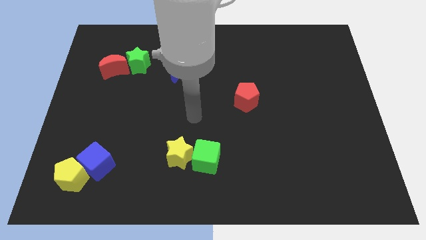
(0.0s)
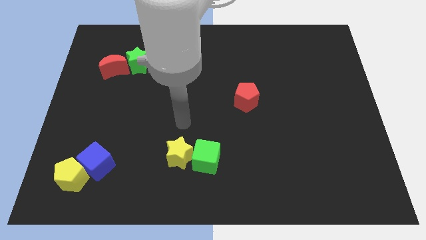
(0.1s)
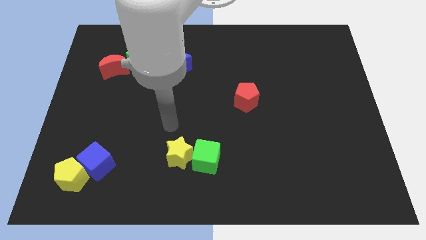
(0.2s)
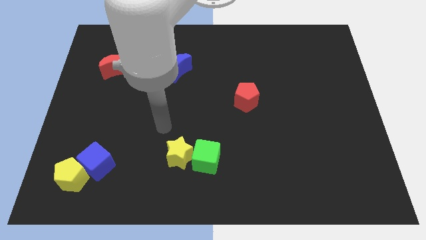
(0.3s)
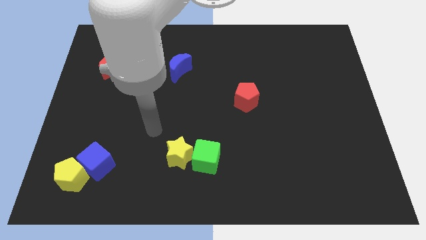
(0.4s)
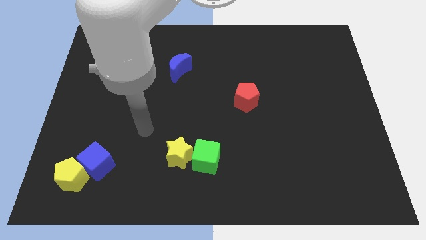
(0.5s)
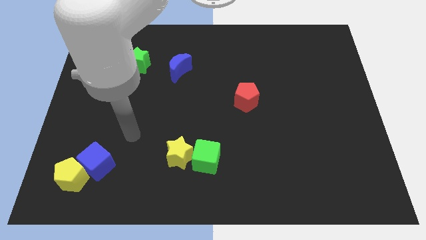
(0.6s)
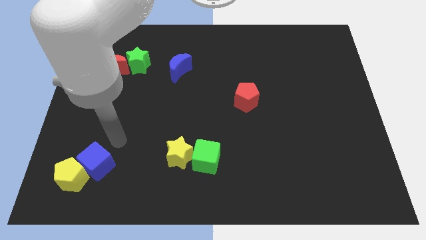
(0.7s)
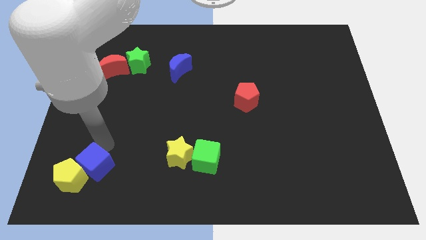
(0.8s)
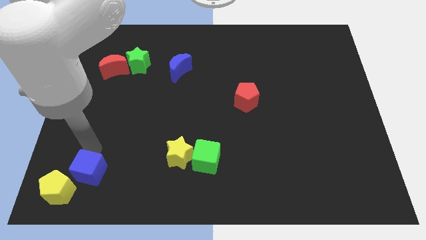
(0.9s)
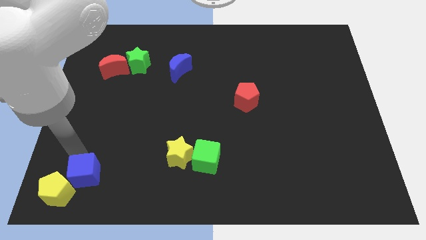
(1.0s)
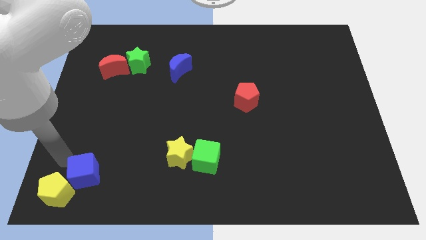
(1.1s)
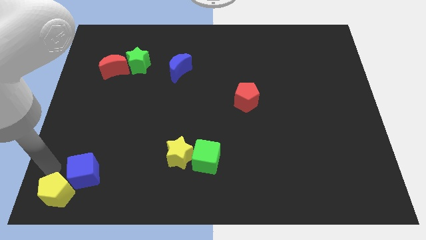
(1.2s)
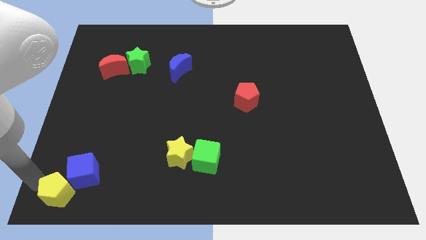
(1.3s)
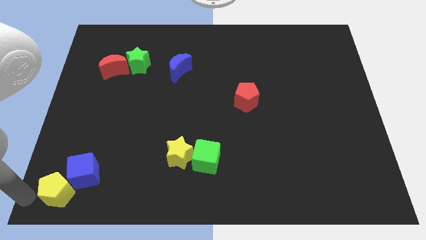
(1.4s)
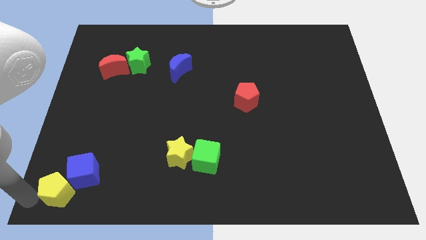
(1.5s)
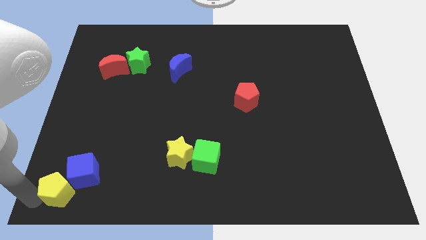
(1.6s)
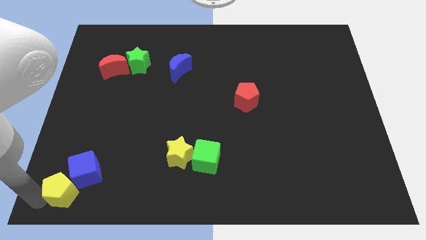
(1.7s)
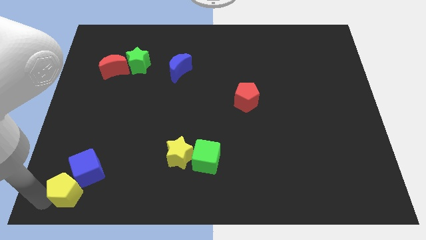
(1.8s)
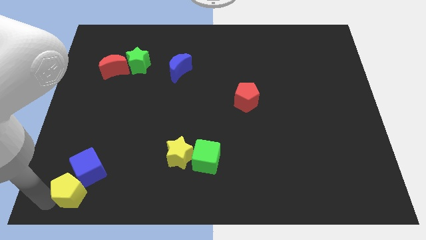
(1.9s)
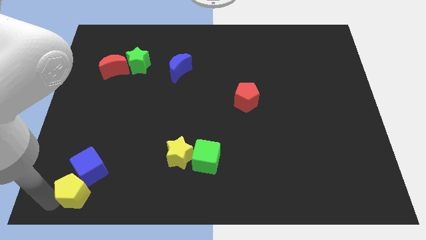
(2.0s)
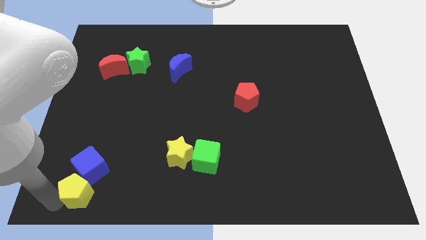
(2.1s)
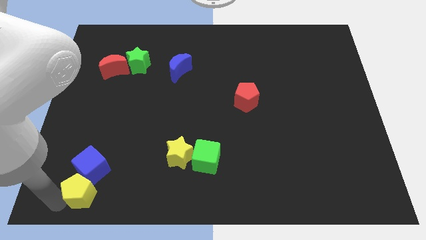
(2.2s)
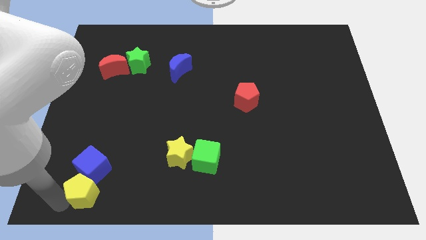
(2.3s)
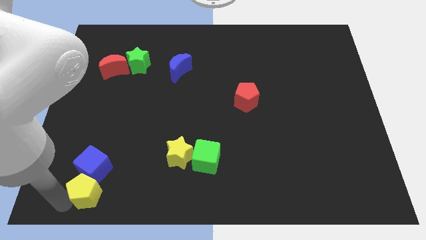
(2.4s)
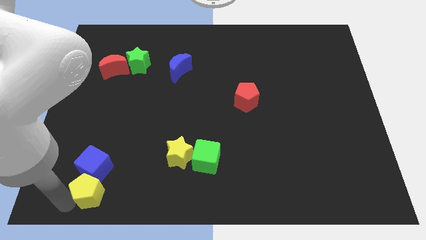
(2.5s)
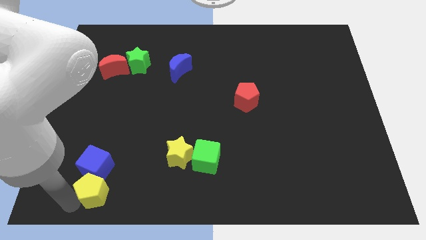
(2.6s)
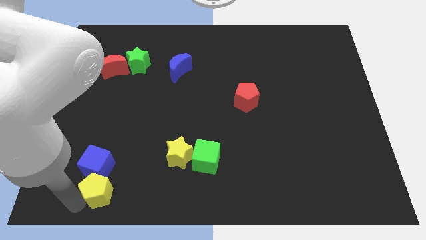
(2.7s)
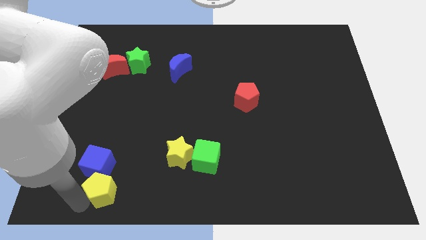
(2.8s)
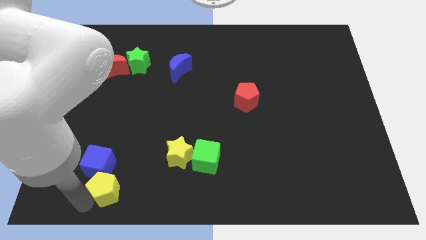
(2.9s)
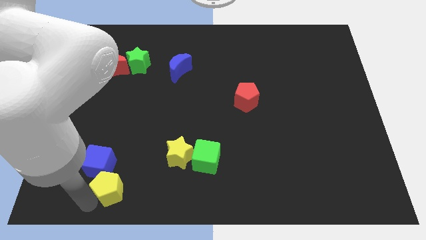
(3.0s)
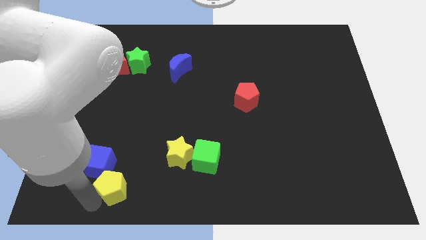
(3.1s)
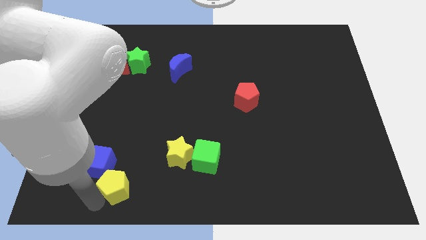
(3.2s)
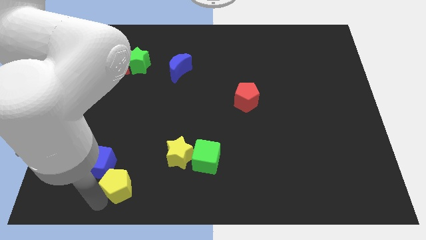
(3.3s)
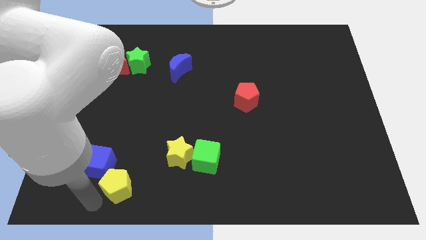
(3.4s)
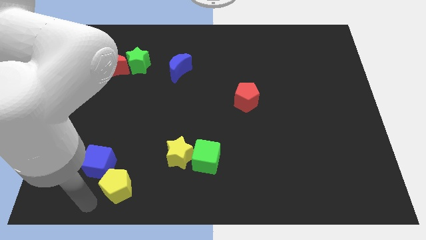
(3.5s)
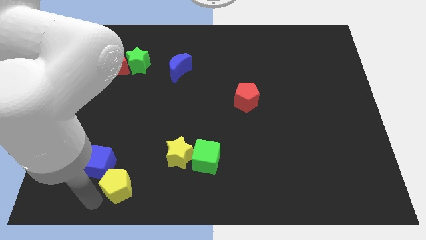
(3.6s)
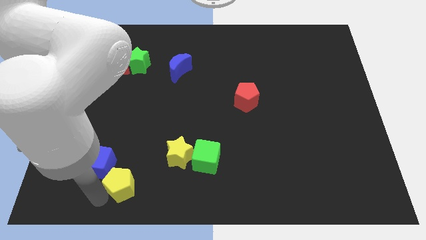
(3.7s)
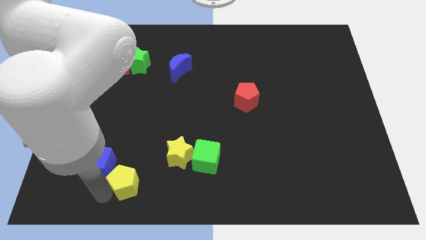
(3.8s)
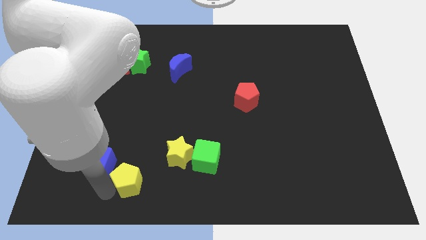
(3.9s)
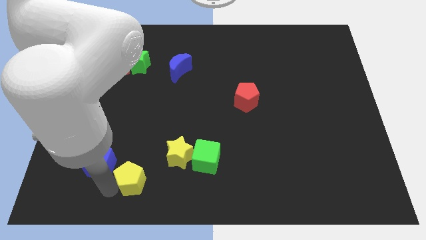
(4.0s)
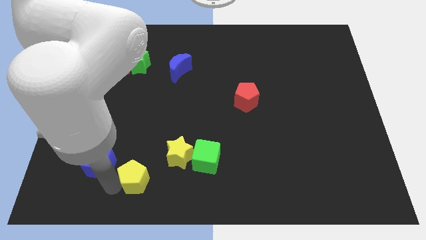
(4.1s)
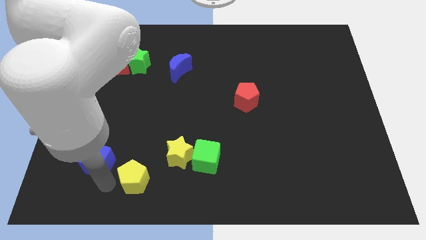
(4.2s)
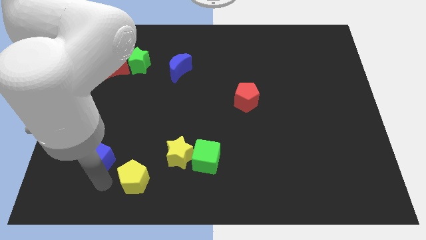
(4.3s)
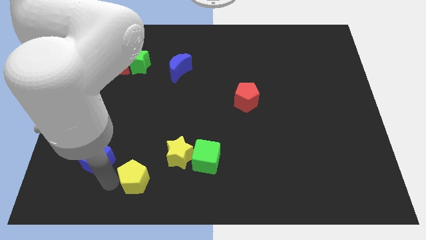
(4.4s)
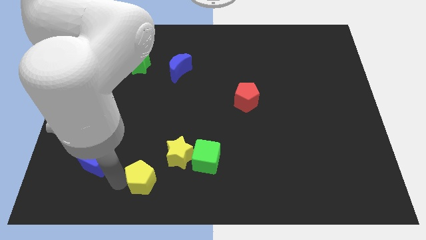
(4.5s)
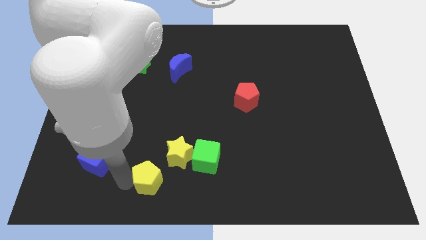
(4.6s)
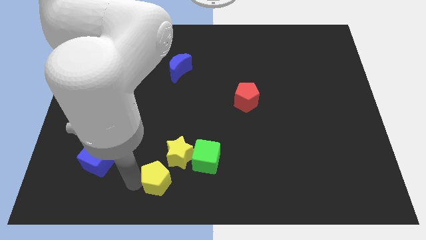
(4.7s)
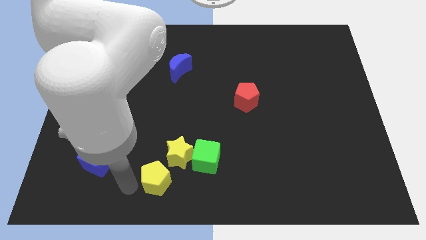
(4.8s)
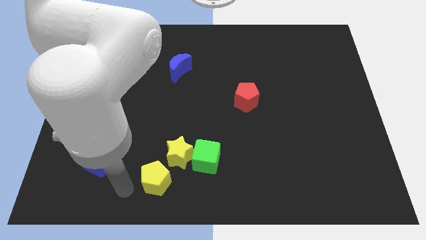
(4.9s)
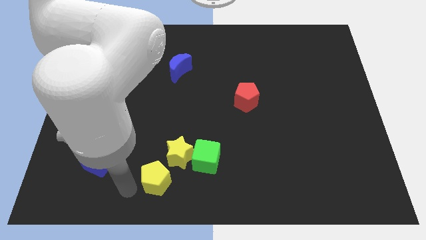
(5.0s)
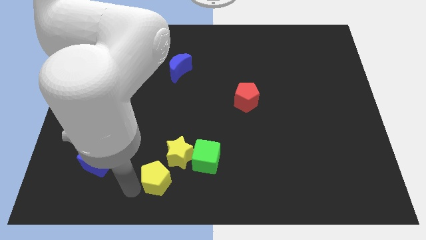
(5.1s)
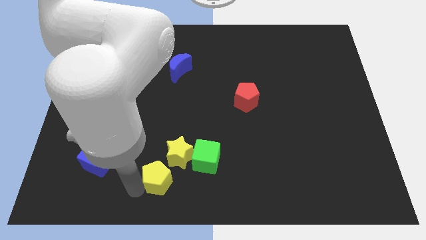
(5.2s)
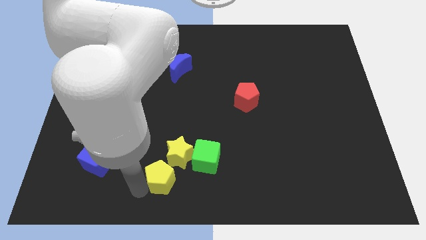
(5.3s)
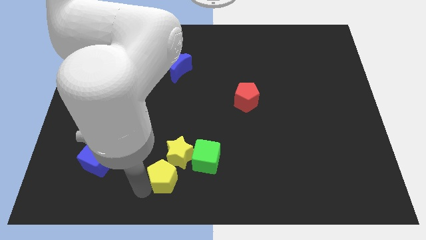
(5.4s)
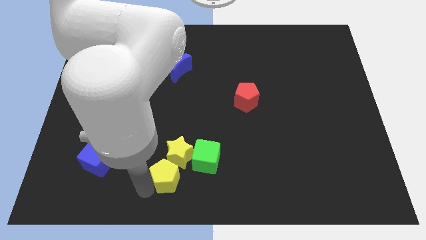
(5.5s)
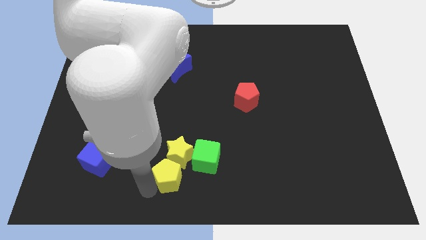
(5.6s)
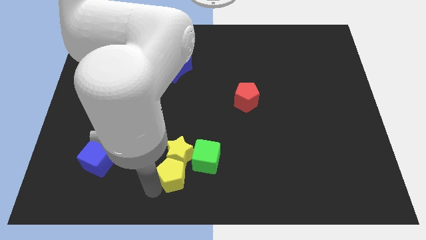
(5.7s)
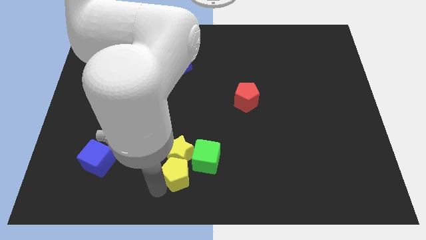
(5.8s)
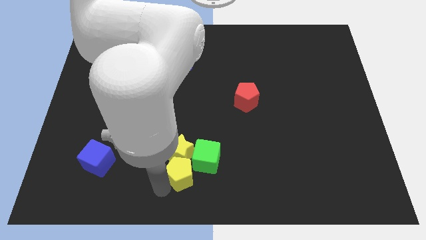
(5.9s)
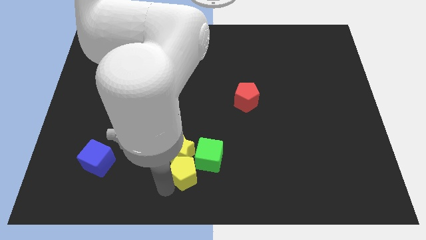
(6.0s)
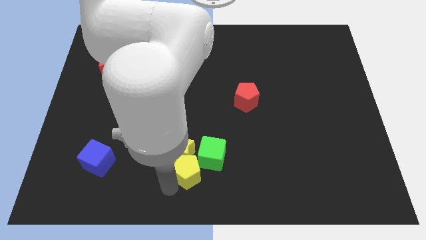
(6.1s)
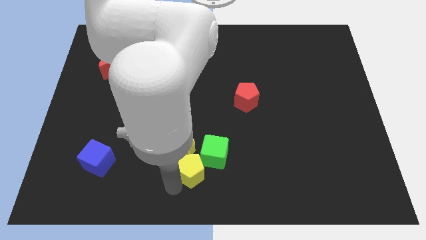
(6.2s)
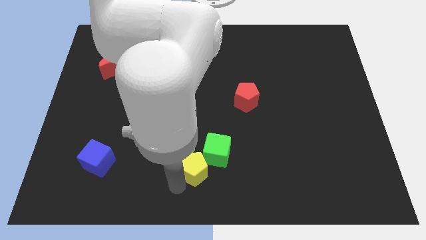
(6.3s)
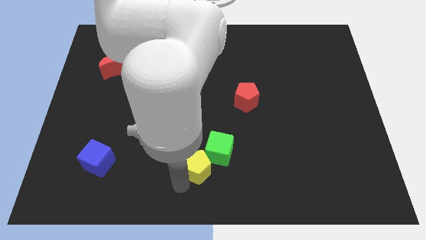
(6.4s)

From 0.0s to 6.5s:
put the yellow pentagon to the green cube

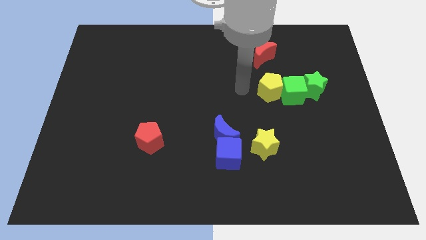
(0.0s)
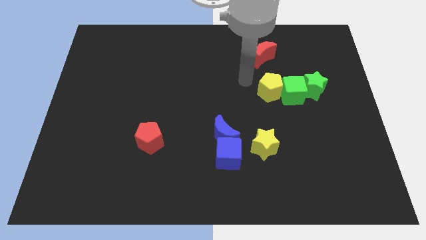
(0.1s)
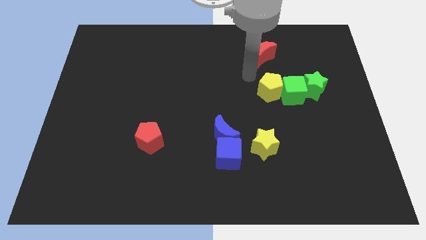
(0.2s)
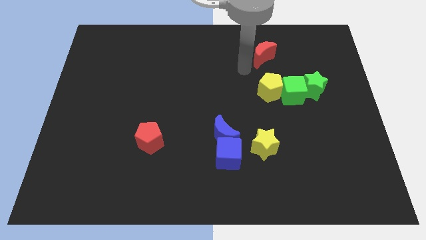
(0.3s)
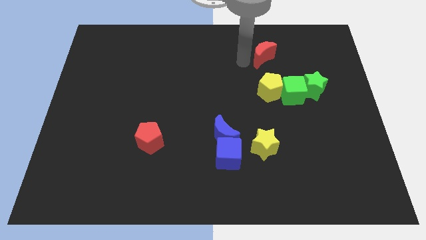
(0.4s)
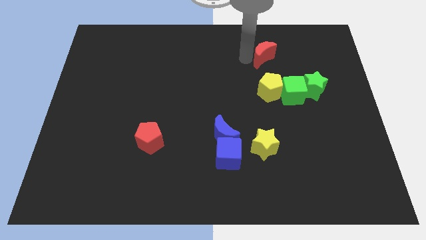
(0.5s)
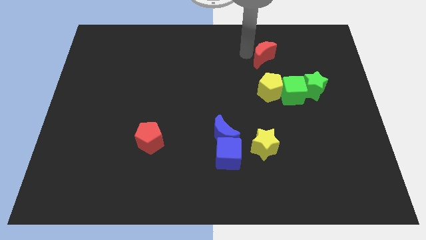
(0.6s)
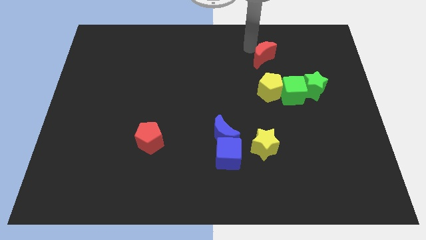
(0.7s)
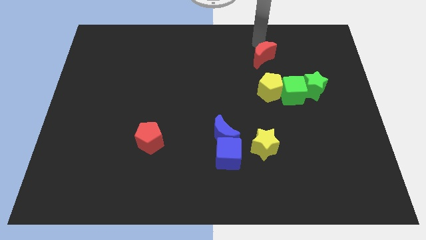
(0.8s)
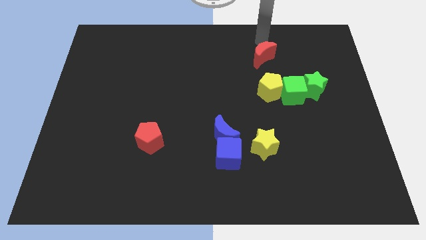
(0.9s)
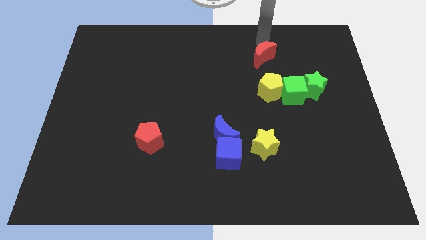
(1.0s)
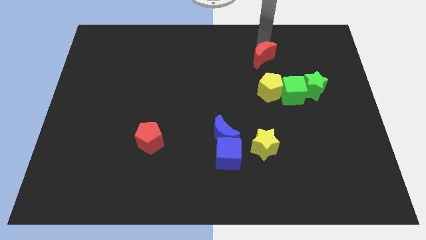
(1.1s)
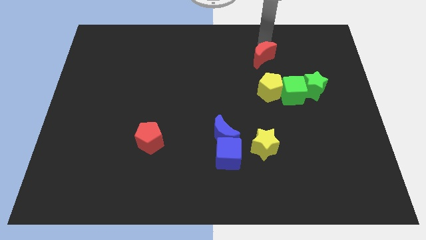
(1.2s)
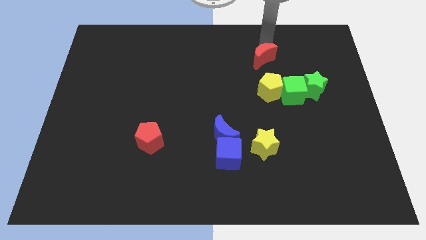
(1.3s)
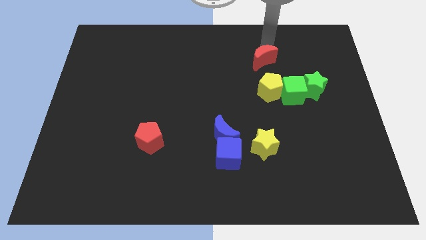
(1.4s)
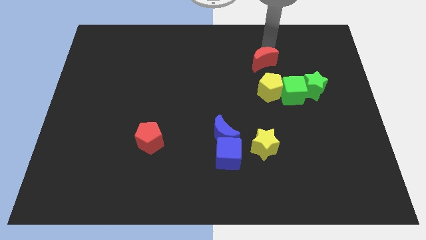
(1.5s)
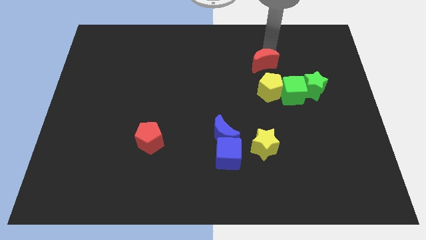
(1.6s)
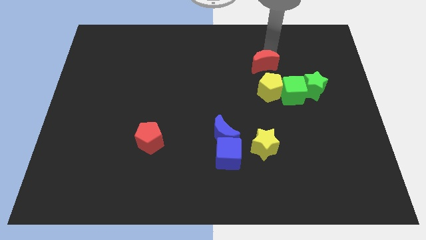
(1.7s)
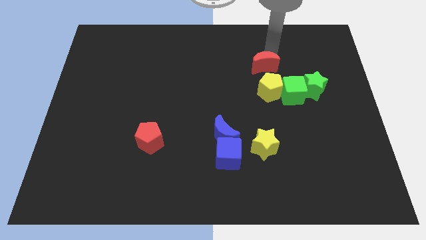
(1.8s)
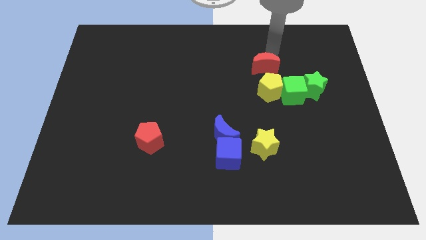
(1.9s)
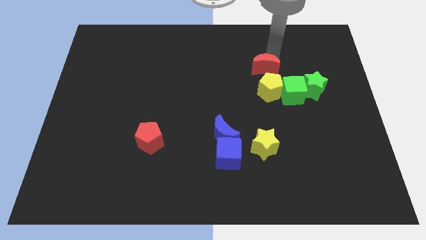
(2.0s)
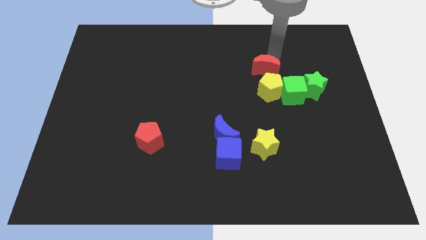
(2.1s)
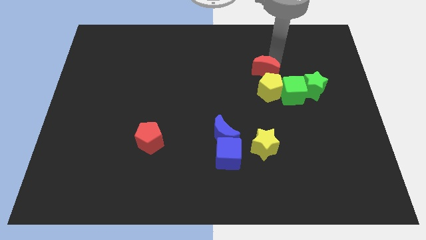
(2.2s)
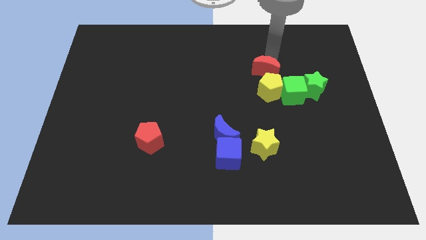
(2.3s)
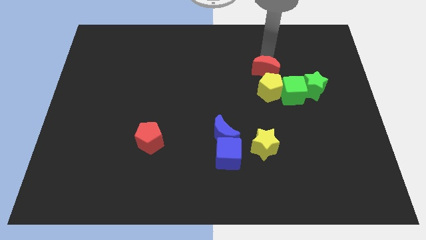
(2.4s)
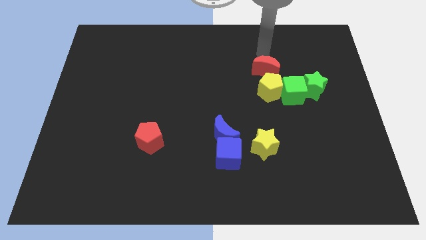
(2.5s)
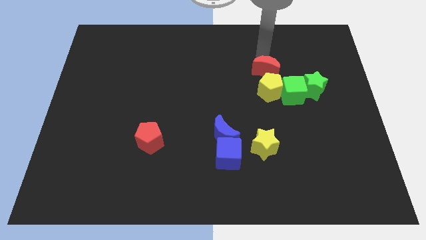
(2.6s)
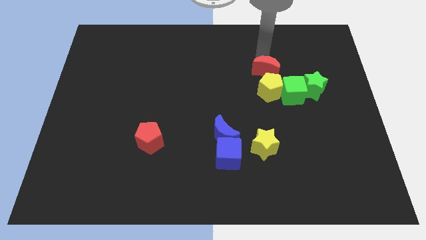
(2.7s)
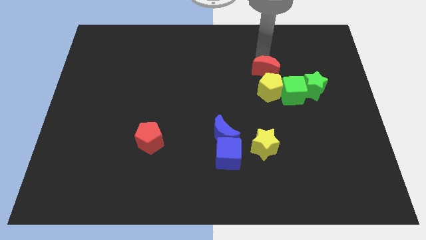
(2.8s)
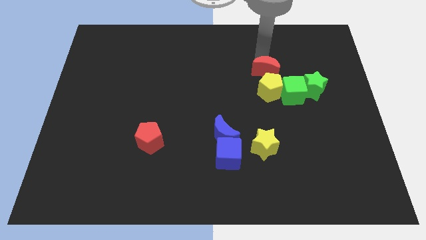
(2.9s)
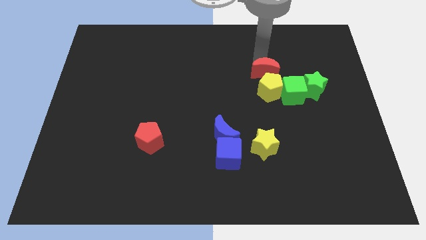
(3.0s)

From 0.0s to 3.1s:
put the red moon towards the yellow pentagon
